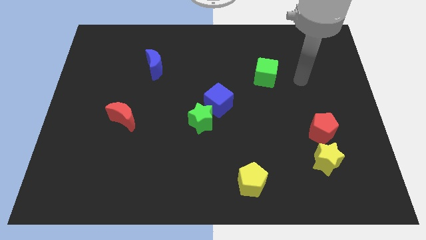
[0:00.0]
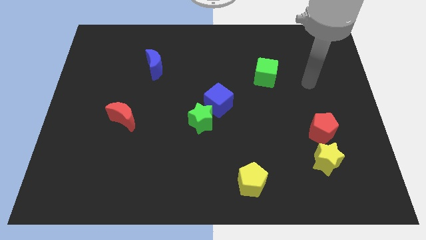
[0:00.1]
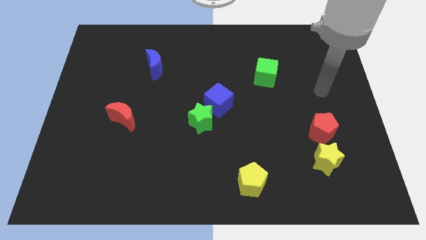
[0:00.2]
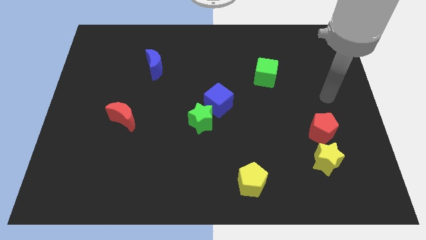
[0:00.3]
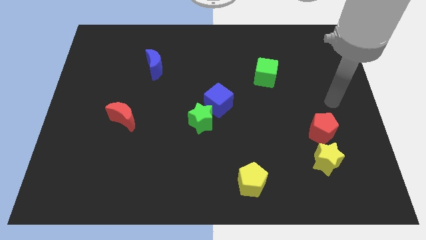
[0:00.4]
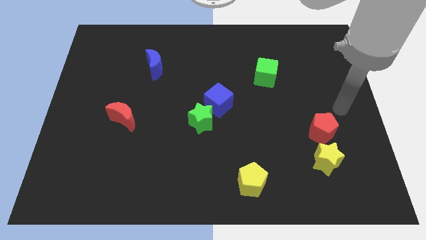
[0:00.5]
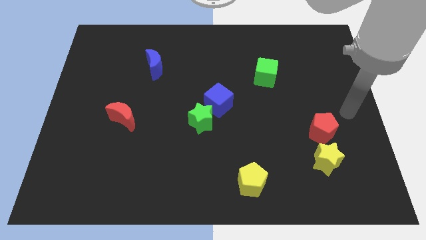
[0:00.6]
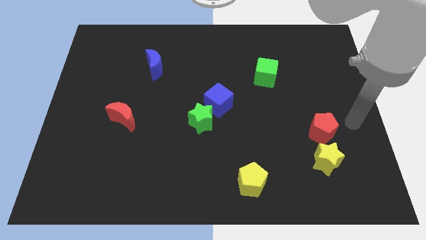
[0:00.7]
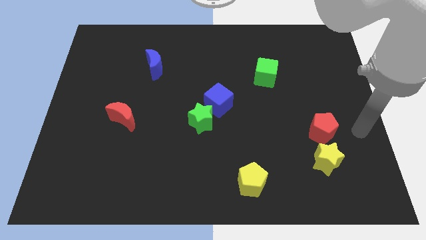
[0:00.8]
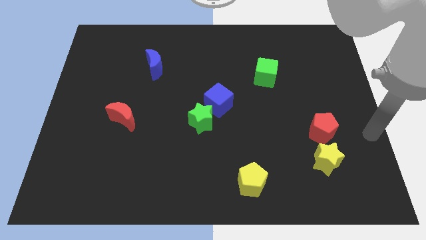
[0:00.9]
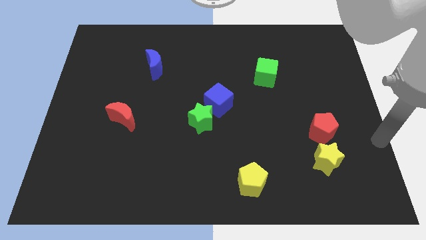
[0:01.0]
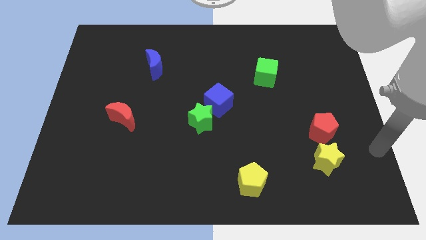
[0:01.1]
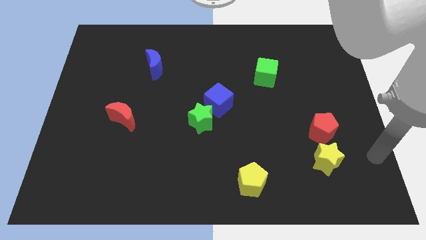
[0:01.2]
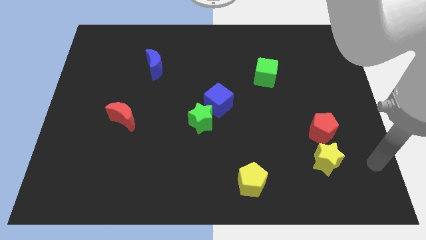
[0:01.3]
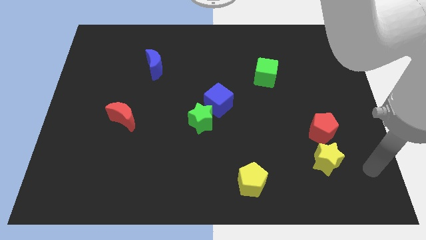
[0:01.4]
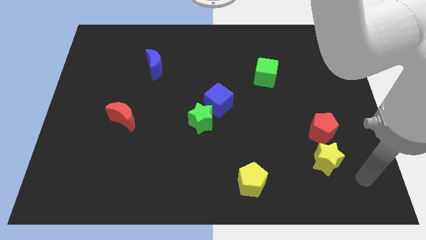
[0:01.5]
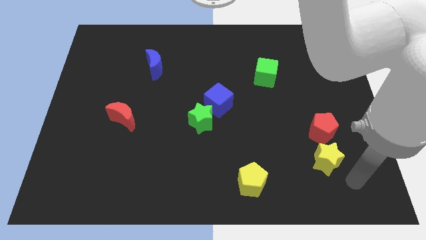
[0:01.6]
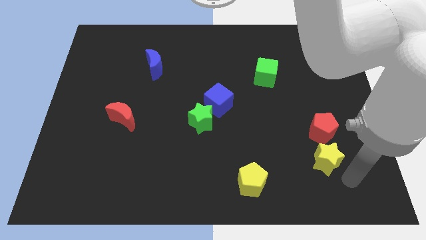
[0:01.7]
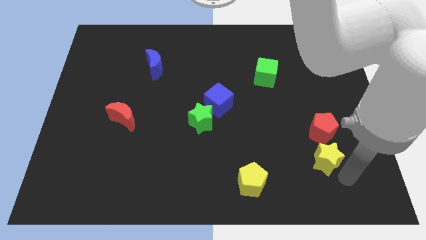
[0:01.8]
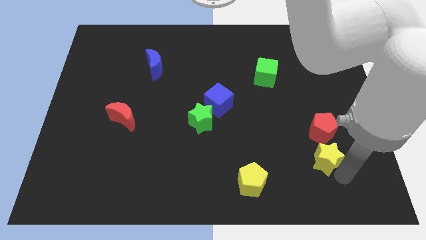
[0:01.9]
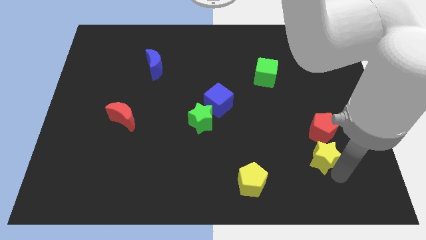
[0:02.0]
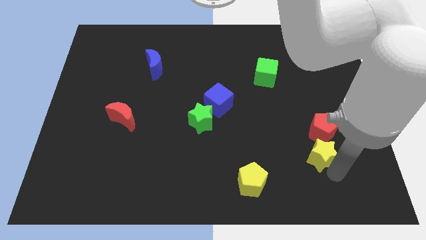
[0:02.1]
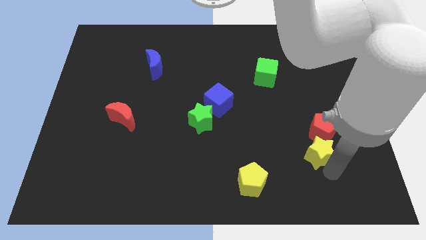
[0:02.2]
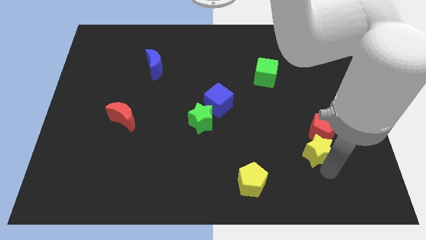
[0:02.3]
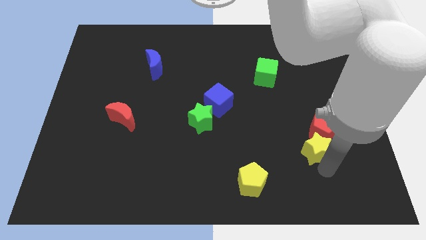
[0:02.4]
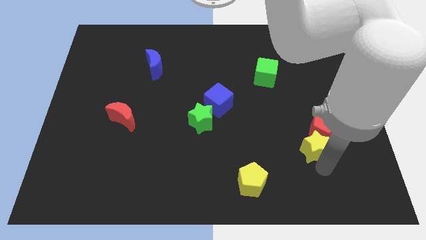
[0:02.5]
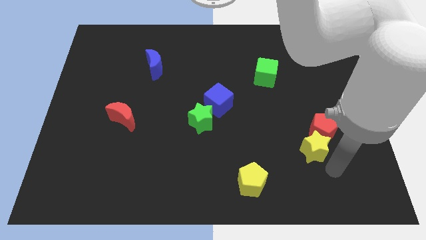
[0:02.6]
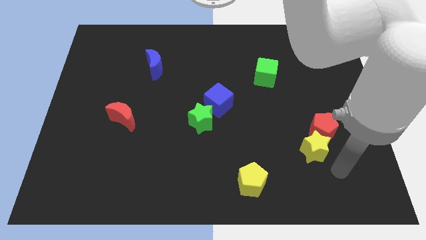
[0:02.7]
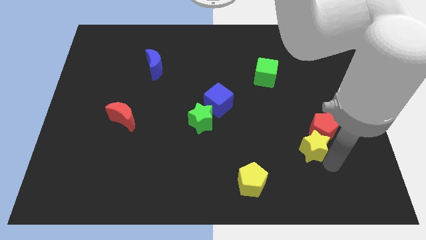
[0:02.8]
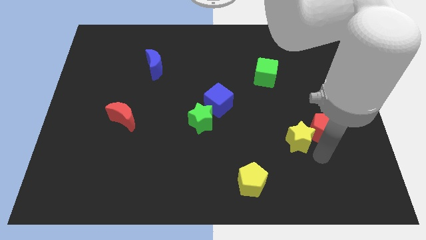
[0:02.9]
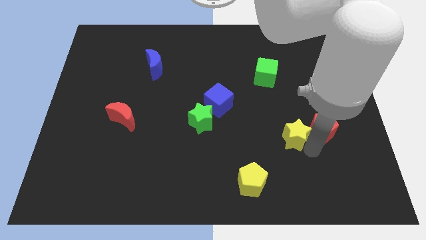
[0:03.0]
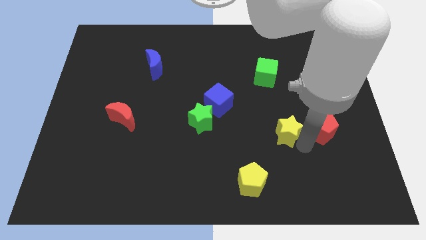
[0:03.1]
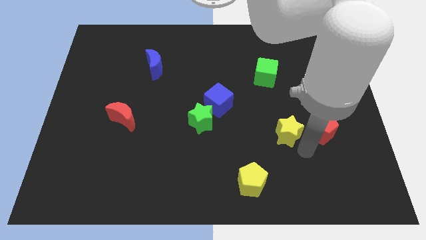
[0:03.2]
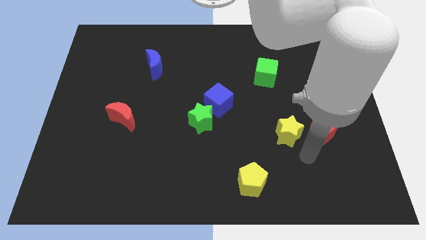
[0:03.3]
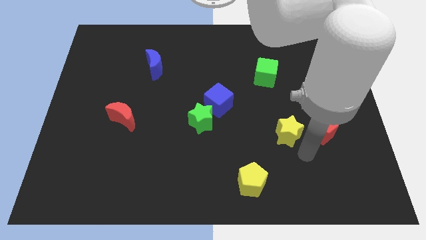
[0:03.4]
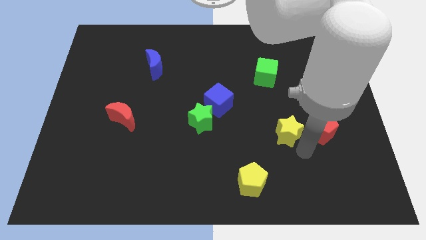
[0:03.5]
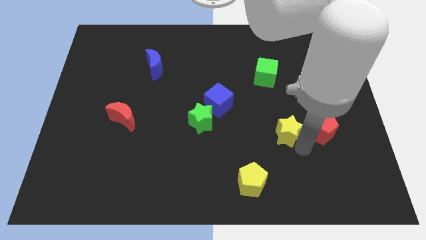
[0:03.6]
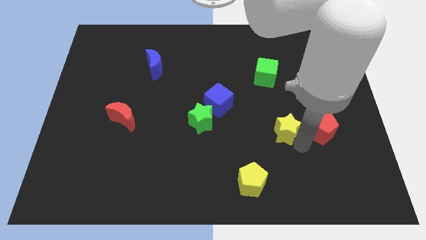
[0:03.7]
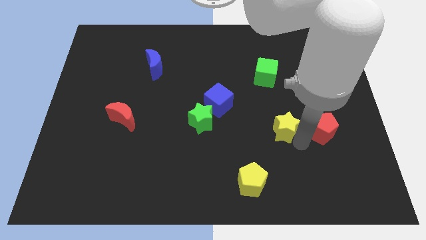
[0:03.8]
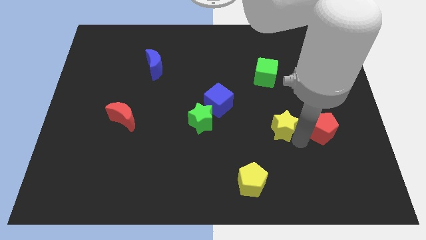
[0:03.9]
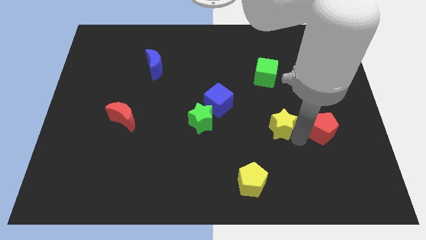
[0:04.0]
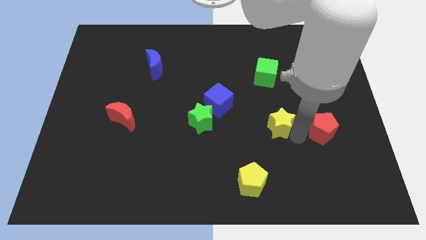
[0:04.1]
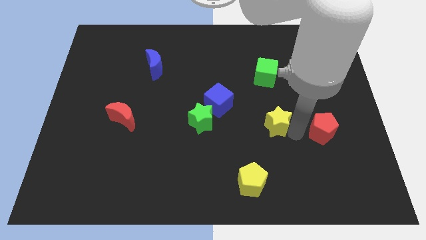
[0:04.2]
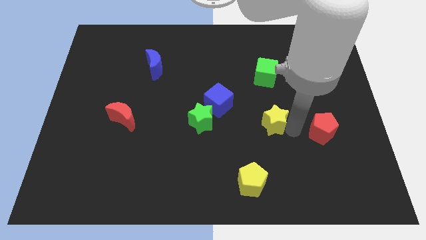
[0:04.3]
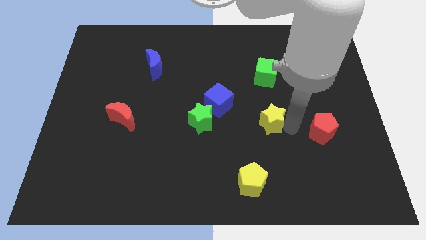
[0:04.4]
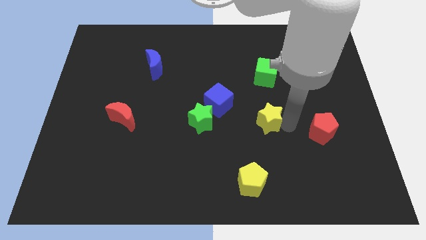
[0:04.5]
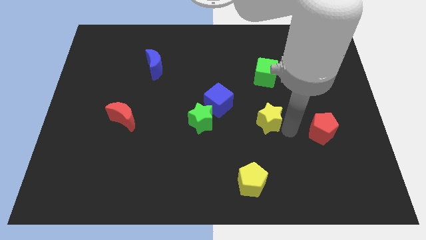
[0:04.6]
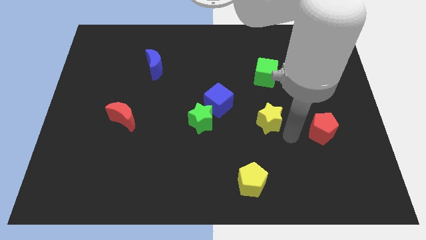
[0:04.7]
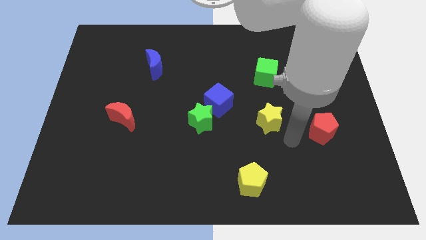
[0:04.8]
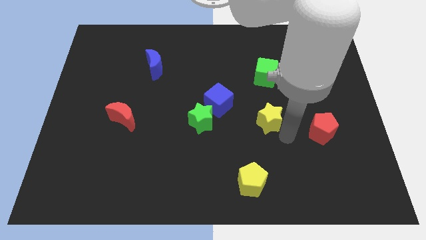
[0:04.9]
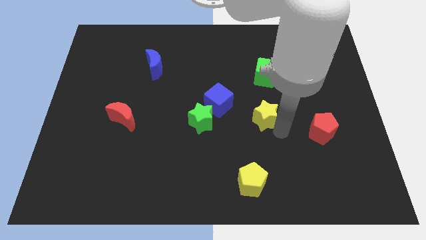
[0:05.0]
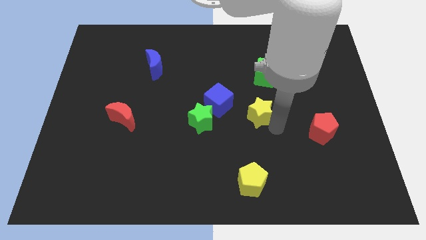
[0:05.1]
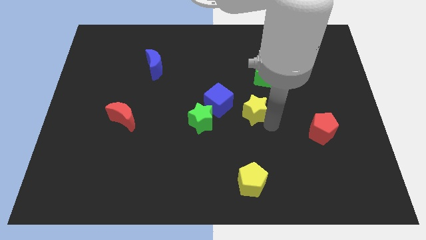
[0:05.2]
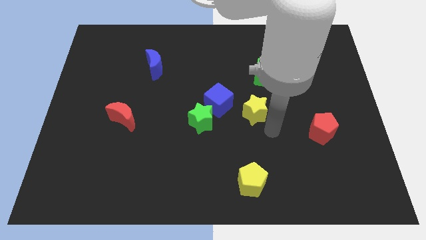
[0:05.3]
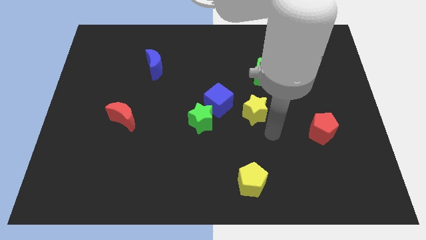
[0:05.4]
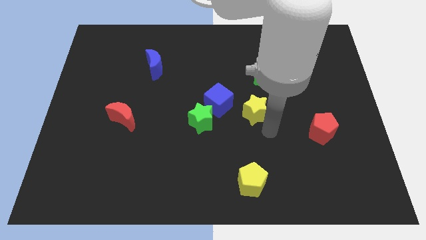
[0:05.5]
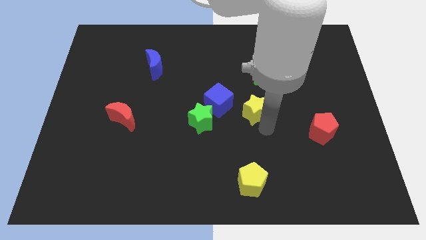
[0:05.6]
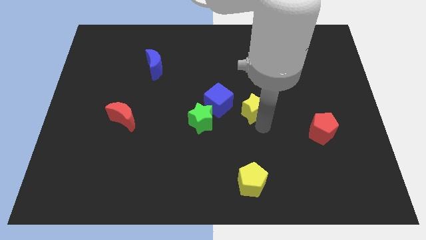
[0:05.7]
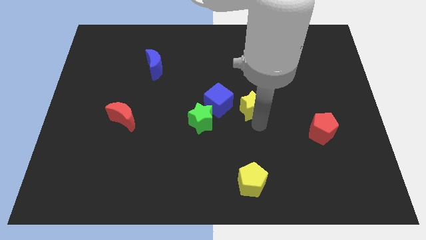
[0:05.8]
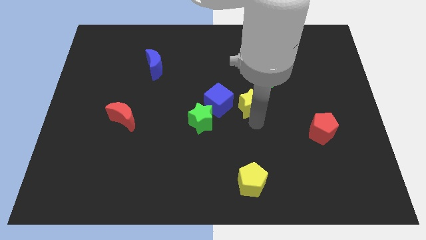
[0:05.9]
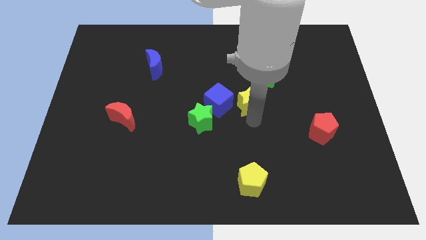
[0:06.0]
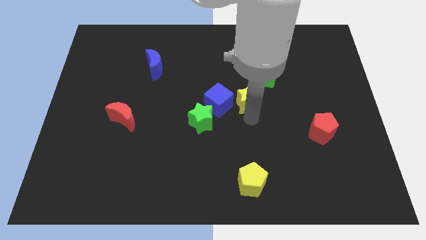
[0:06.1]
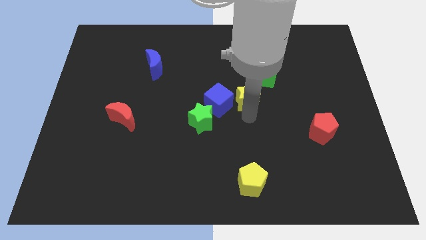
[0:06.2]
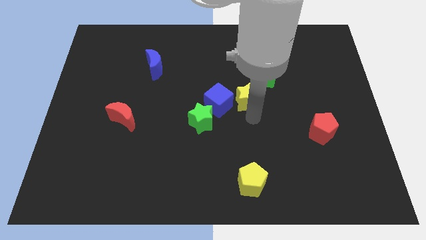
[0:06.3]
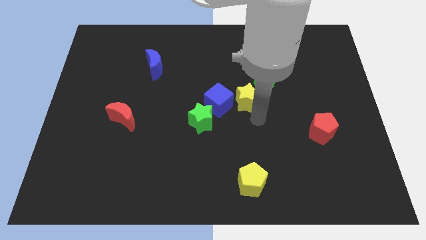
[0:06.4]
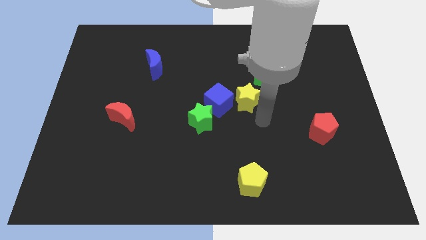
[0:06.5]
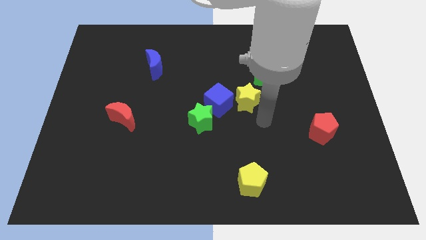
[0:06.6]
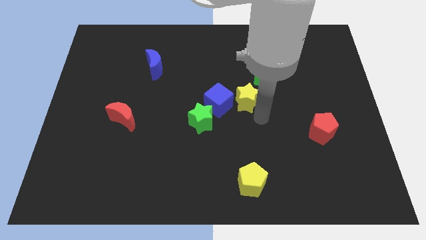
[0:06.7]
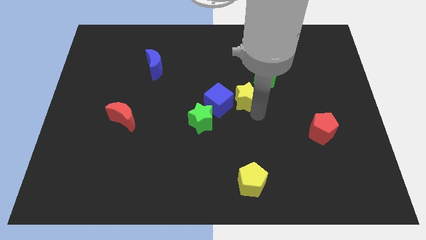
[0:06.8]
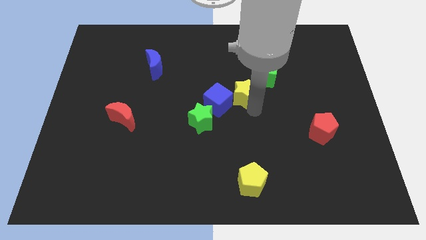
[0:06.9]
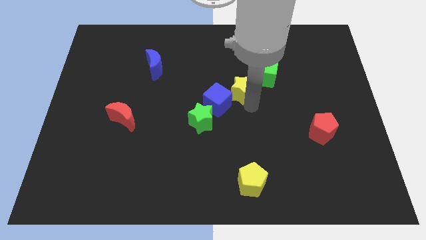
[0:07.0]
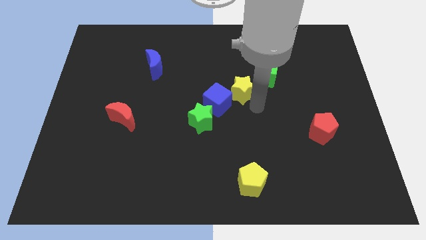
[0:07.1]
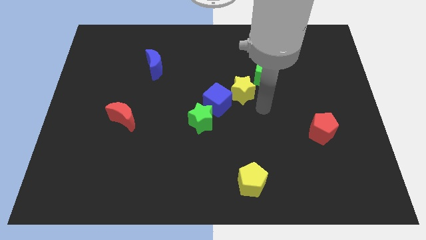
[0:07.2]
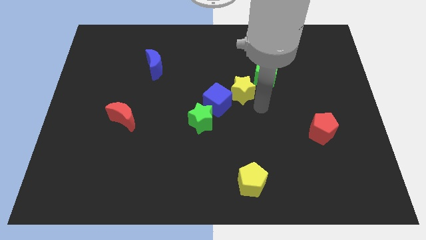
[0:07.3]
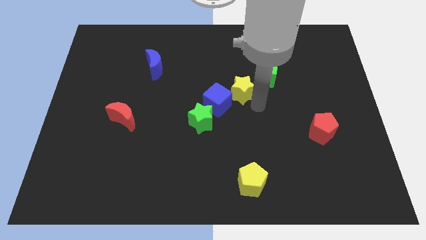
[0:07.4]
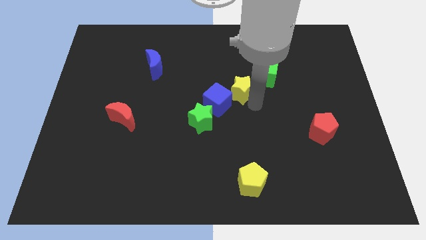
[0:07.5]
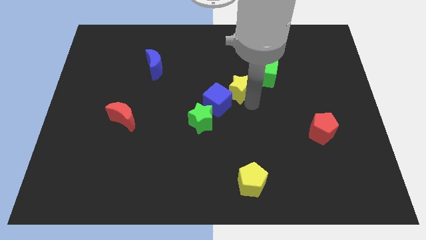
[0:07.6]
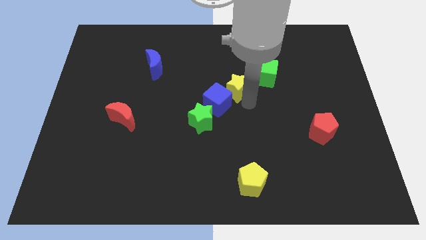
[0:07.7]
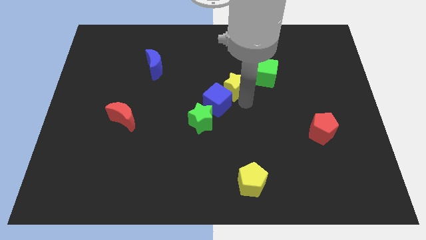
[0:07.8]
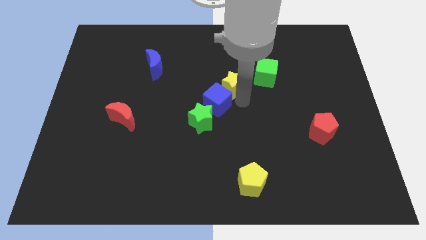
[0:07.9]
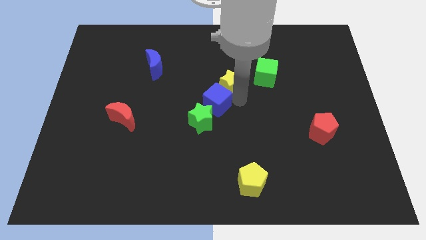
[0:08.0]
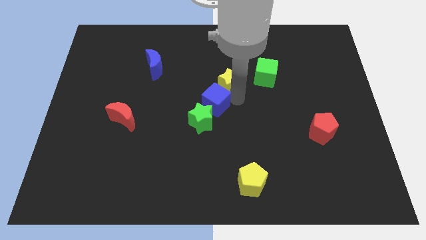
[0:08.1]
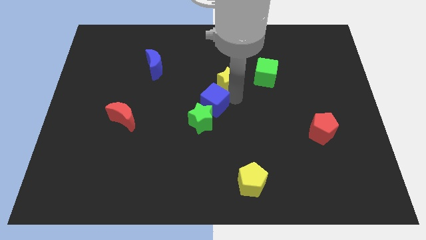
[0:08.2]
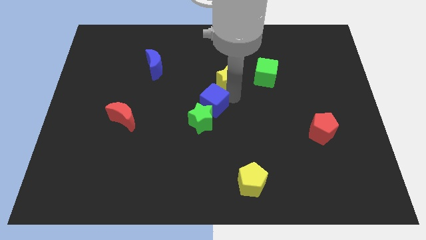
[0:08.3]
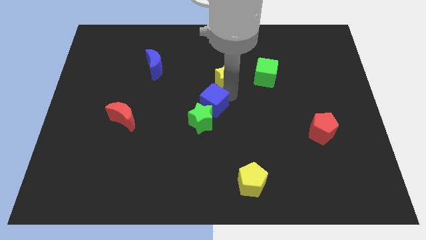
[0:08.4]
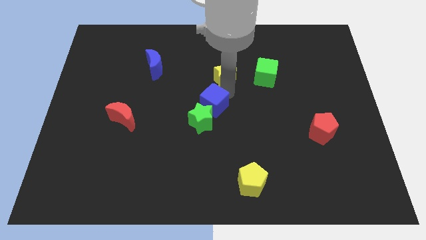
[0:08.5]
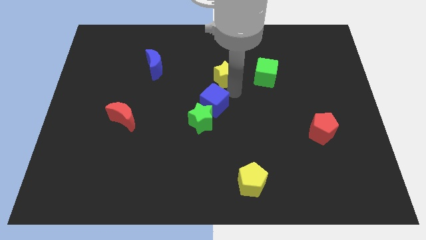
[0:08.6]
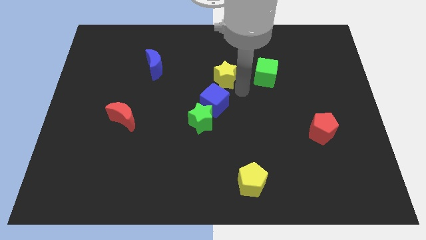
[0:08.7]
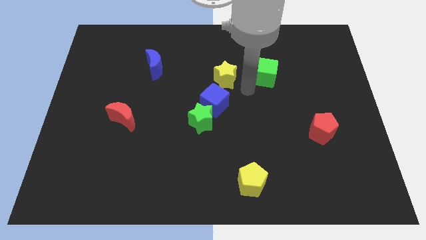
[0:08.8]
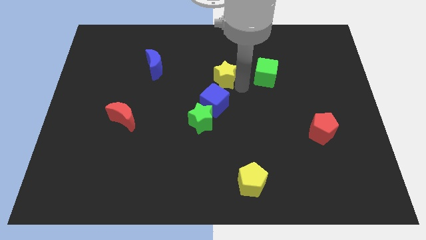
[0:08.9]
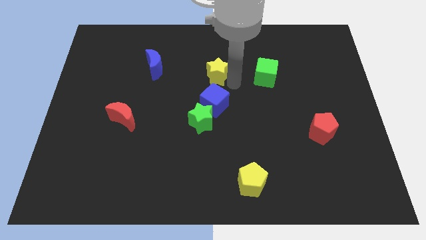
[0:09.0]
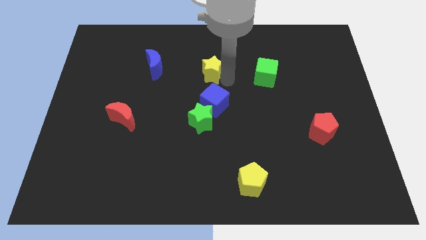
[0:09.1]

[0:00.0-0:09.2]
put the yellow star right of the blue moon
